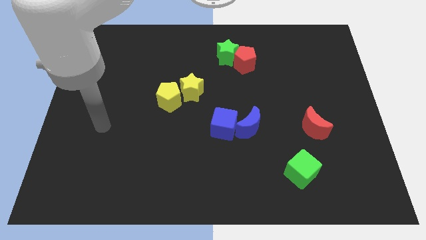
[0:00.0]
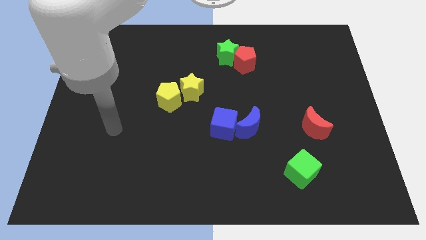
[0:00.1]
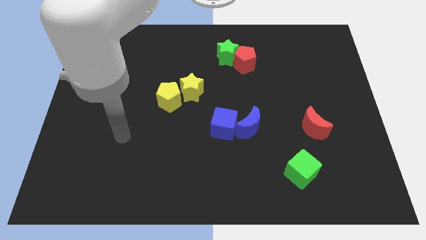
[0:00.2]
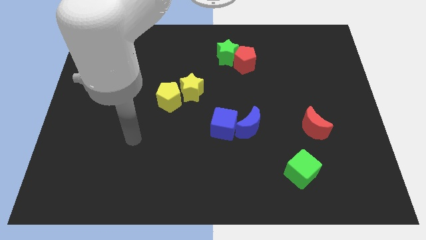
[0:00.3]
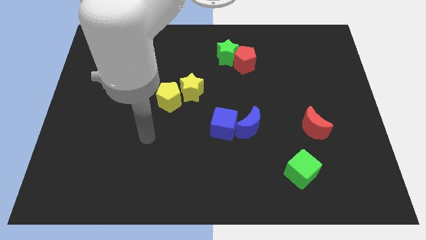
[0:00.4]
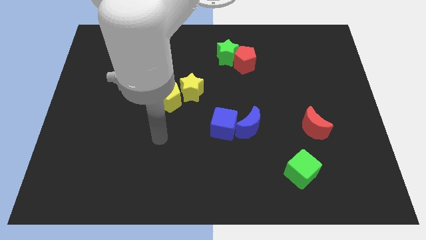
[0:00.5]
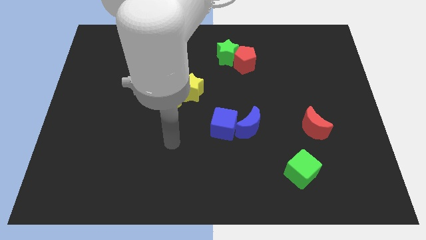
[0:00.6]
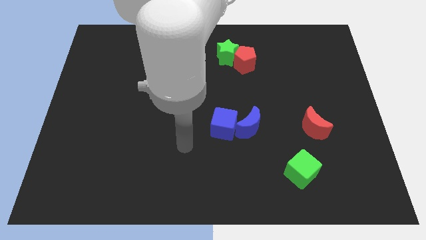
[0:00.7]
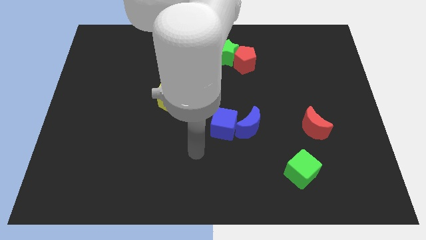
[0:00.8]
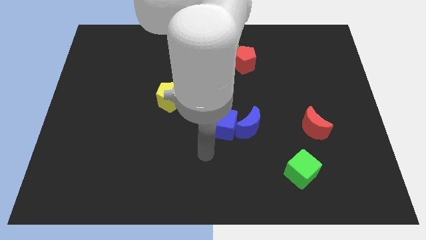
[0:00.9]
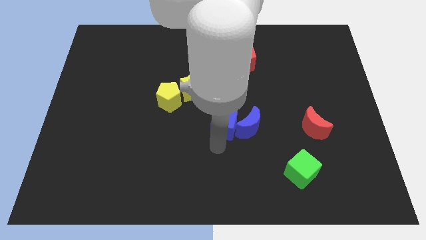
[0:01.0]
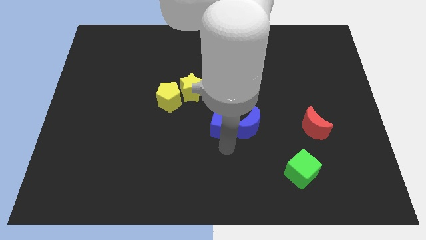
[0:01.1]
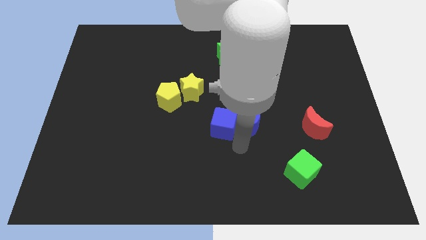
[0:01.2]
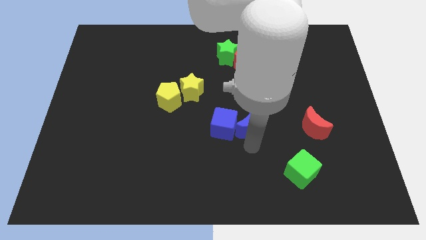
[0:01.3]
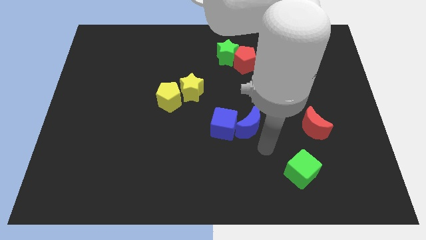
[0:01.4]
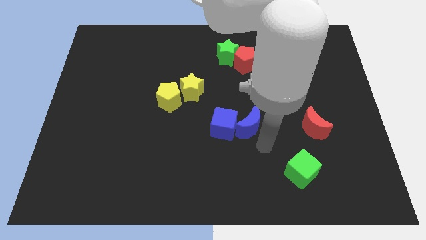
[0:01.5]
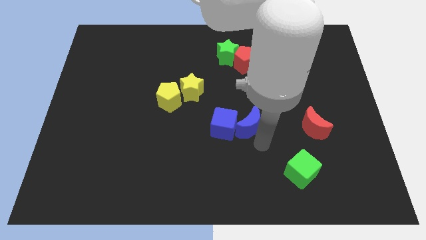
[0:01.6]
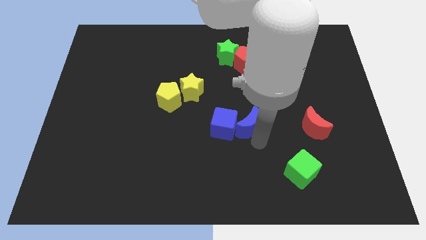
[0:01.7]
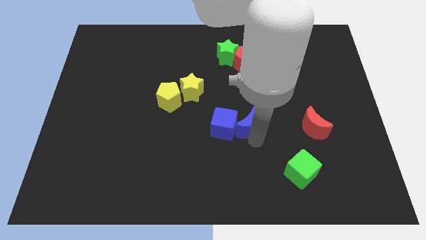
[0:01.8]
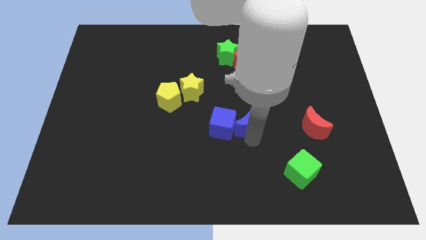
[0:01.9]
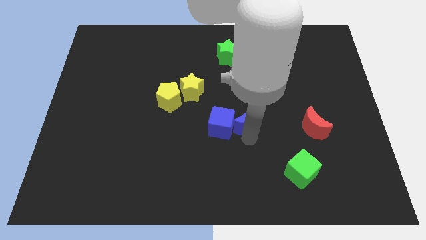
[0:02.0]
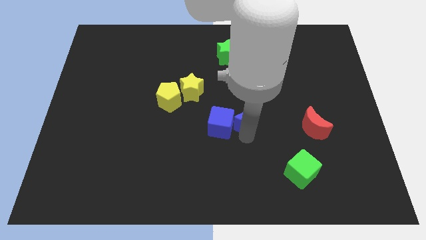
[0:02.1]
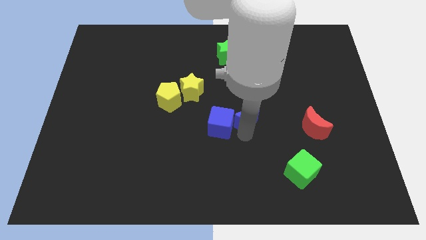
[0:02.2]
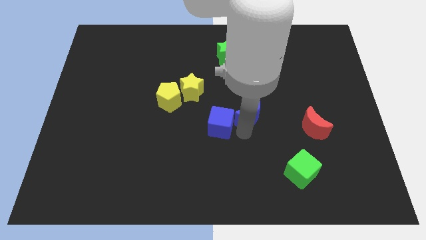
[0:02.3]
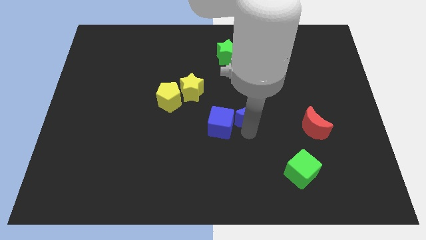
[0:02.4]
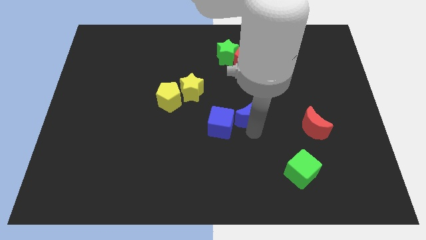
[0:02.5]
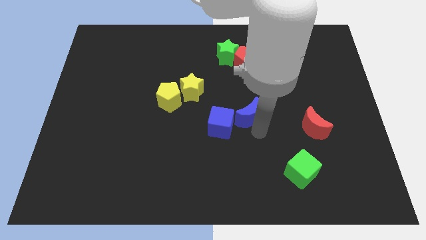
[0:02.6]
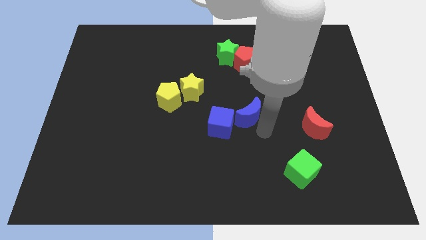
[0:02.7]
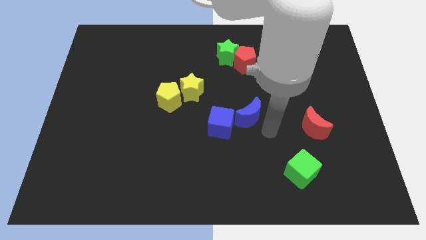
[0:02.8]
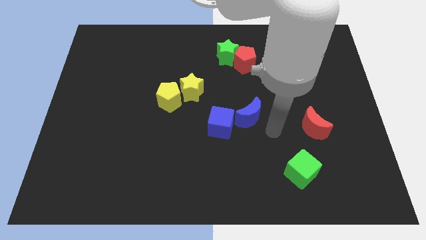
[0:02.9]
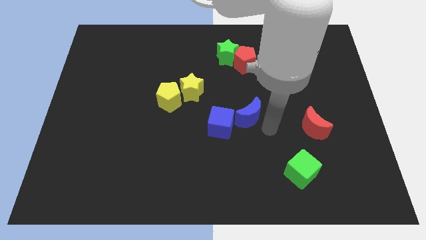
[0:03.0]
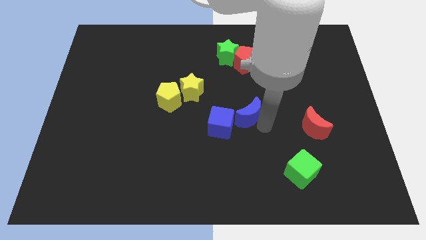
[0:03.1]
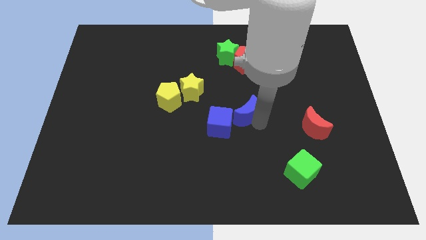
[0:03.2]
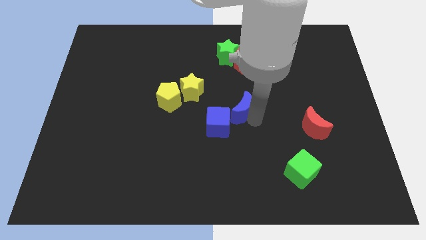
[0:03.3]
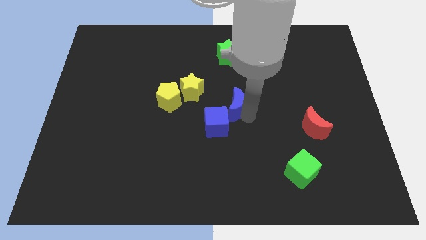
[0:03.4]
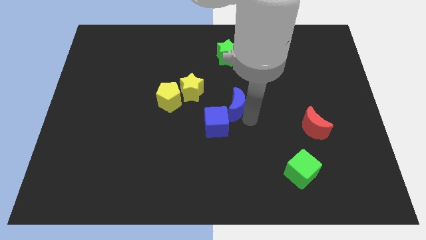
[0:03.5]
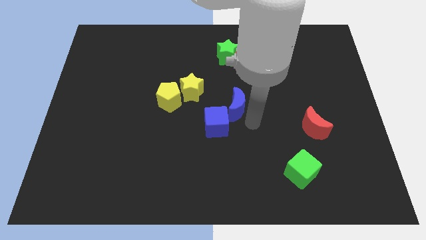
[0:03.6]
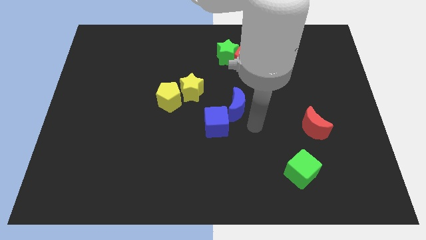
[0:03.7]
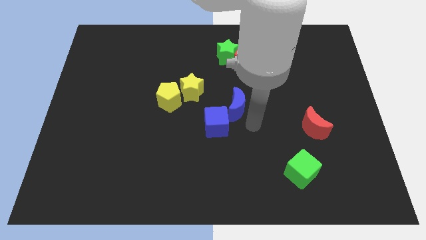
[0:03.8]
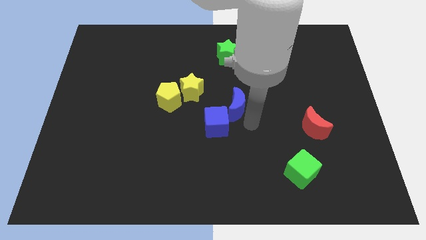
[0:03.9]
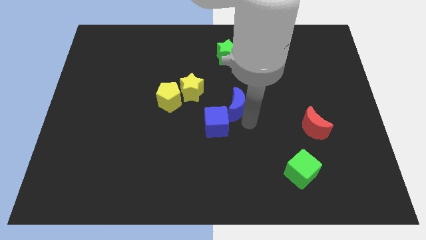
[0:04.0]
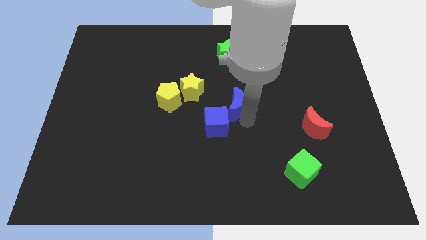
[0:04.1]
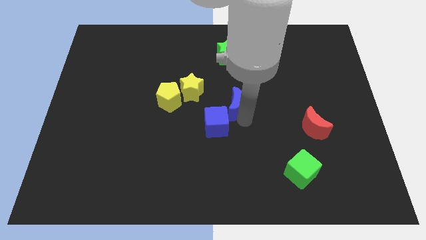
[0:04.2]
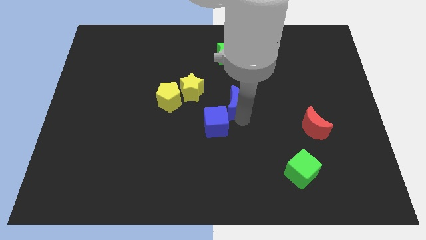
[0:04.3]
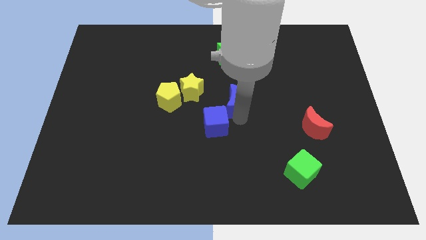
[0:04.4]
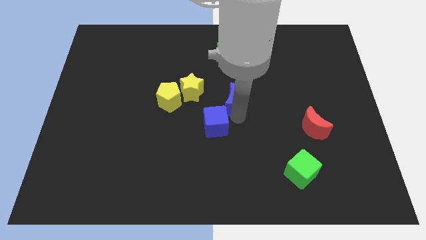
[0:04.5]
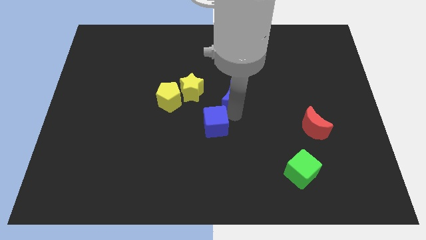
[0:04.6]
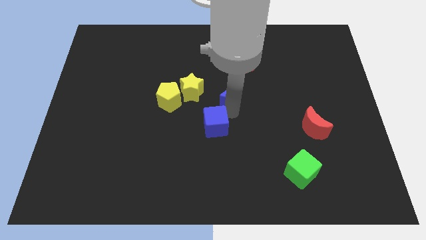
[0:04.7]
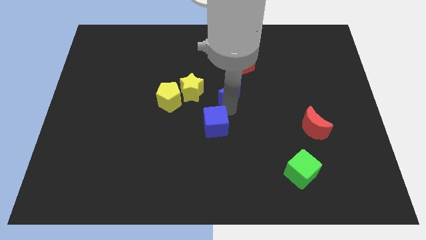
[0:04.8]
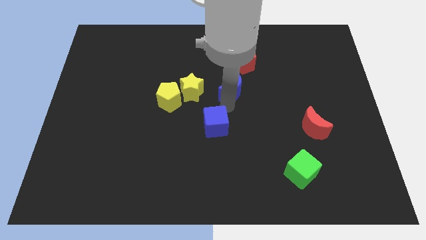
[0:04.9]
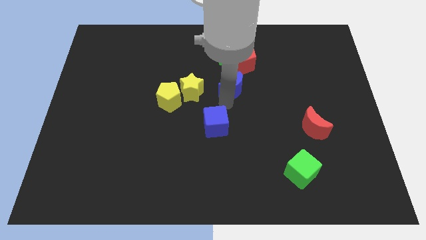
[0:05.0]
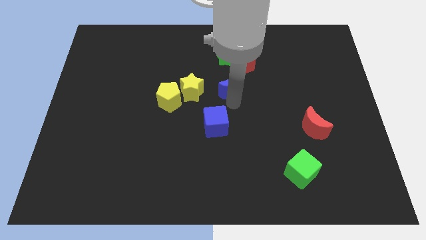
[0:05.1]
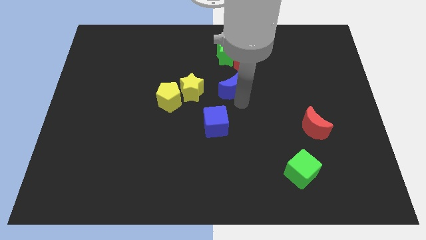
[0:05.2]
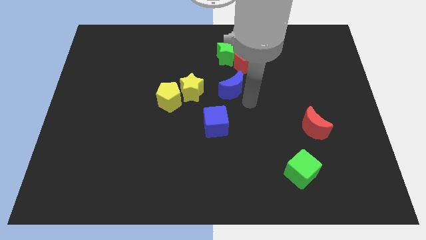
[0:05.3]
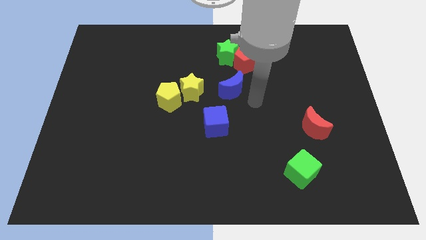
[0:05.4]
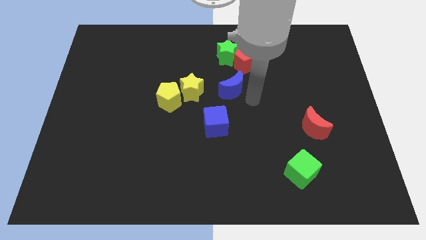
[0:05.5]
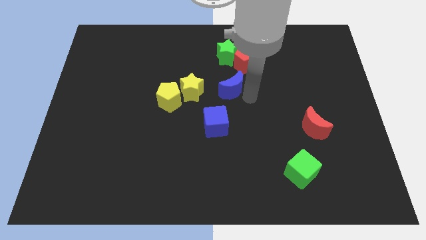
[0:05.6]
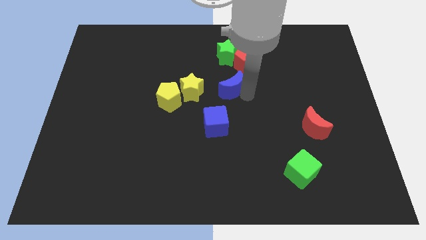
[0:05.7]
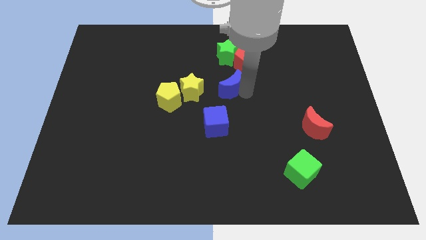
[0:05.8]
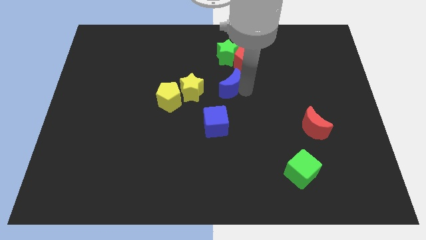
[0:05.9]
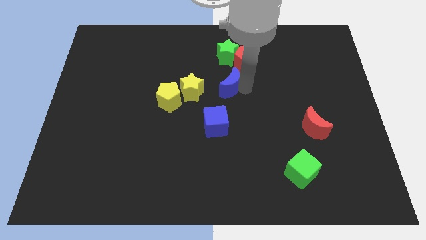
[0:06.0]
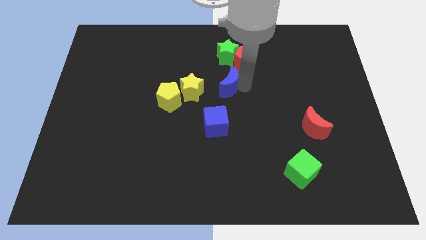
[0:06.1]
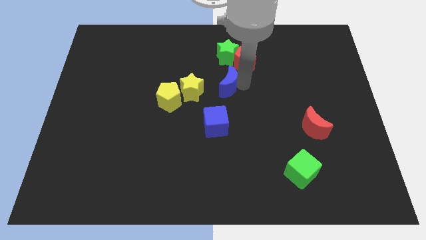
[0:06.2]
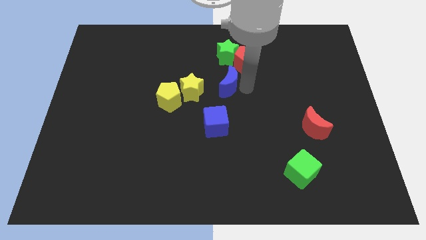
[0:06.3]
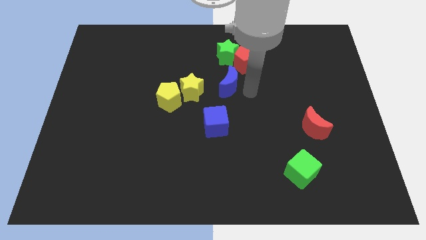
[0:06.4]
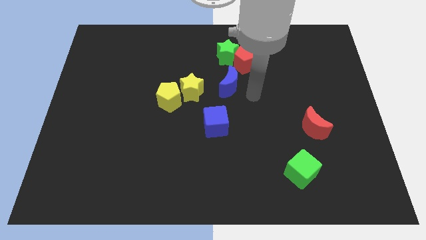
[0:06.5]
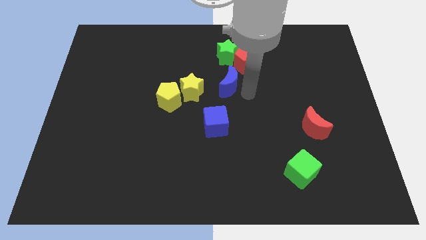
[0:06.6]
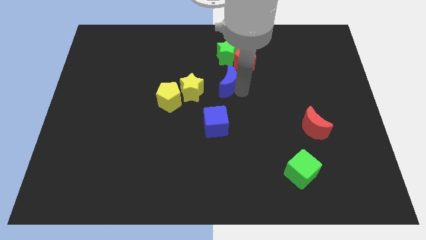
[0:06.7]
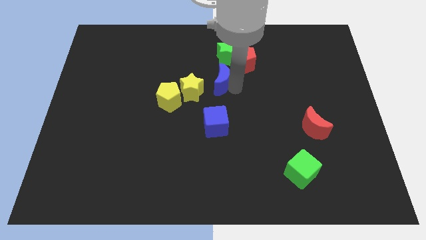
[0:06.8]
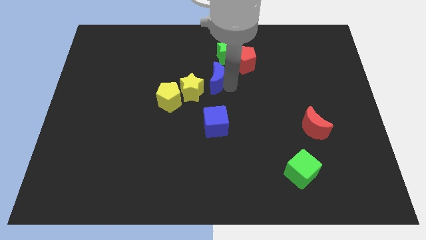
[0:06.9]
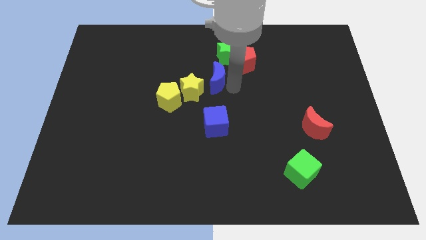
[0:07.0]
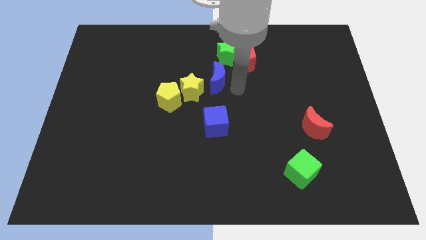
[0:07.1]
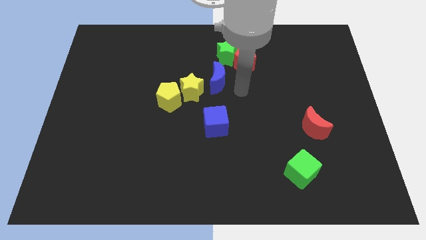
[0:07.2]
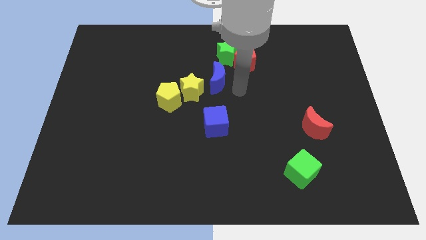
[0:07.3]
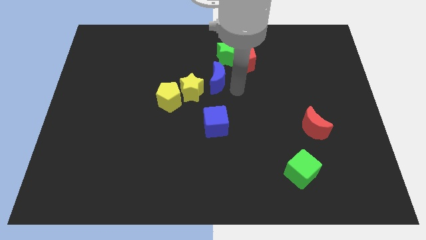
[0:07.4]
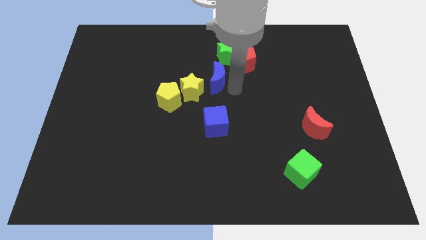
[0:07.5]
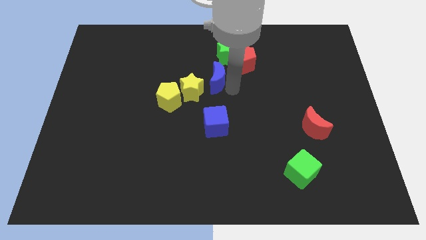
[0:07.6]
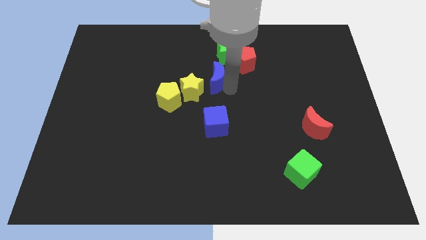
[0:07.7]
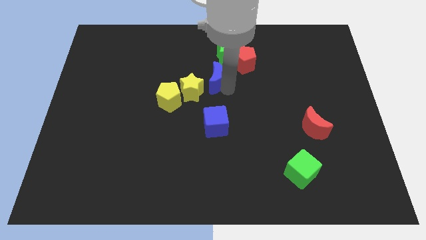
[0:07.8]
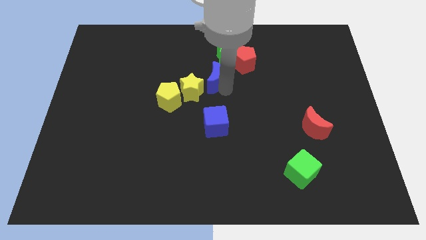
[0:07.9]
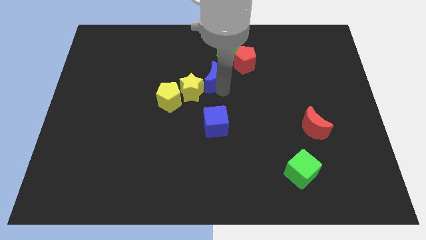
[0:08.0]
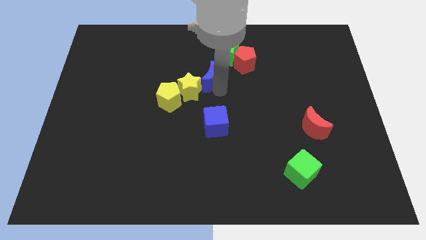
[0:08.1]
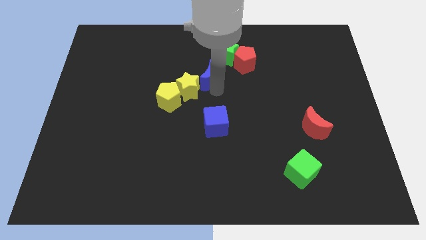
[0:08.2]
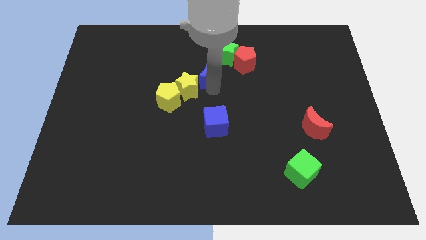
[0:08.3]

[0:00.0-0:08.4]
push the blue moon above the yellow star
